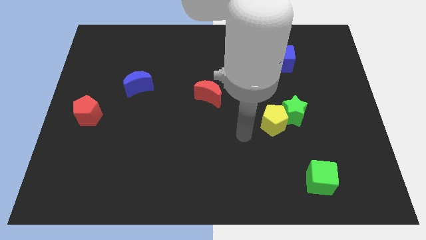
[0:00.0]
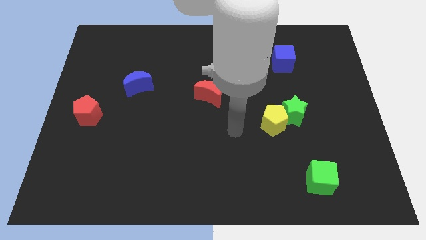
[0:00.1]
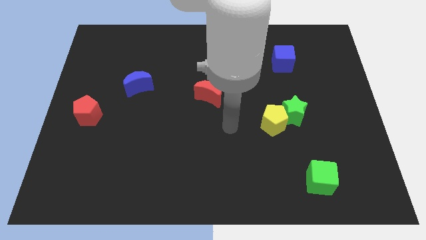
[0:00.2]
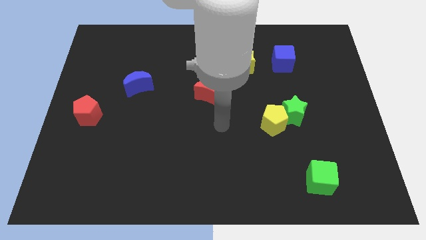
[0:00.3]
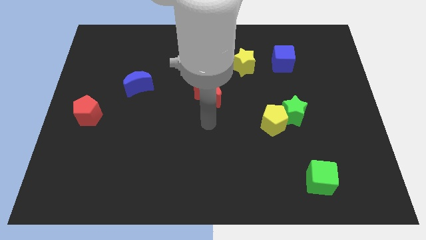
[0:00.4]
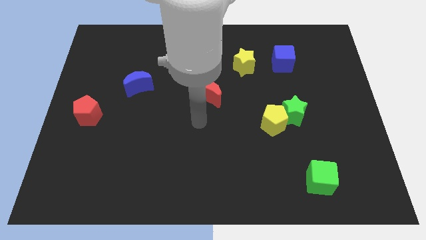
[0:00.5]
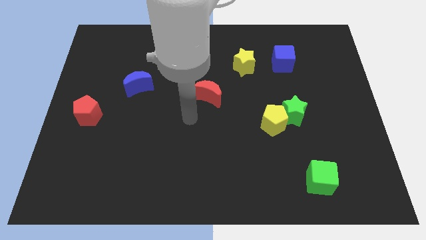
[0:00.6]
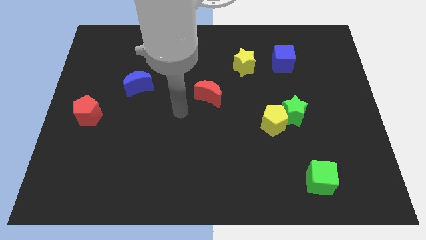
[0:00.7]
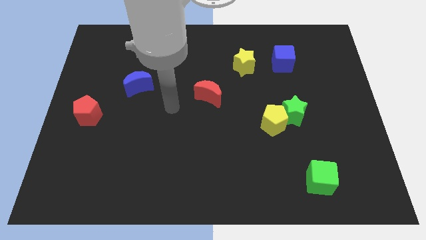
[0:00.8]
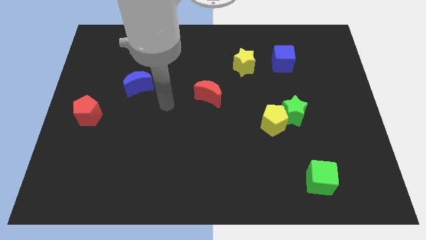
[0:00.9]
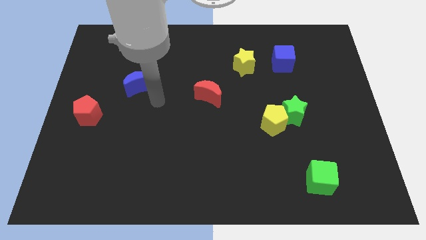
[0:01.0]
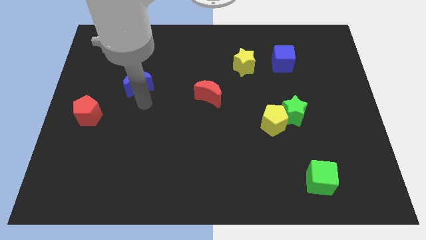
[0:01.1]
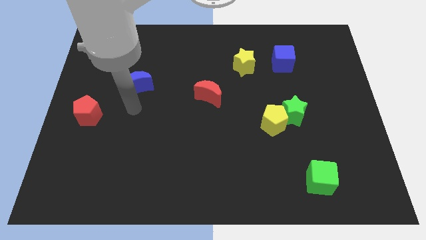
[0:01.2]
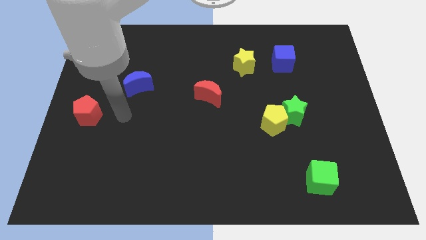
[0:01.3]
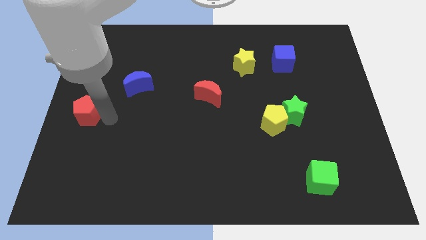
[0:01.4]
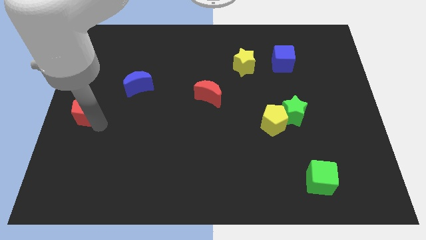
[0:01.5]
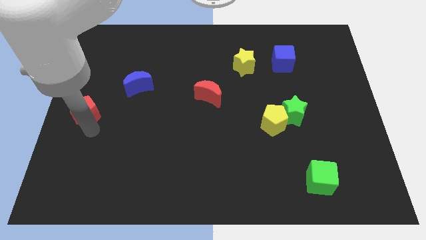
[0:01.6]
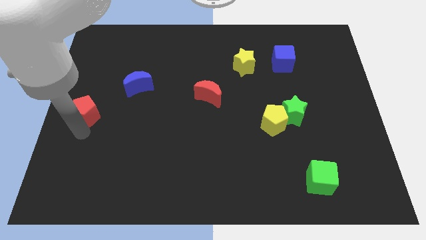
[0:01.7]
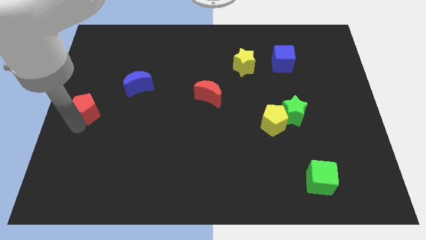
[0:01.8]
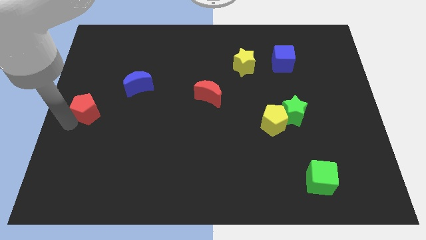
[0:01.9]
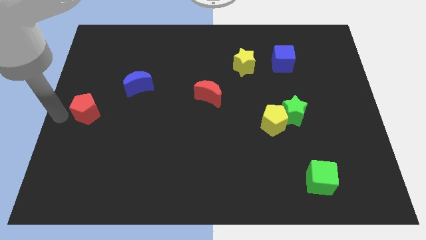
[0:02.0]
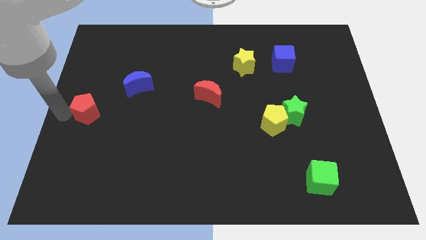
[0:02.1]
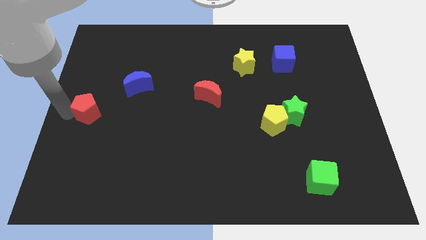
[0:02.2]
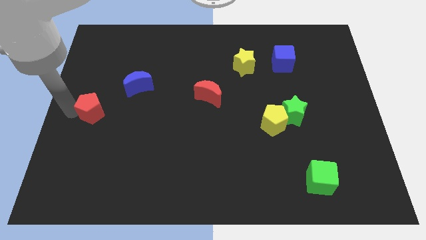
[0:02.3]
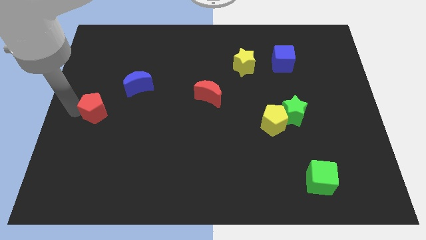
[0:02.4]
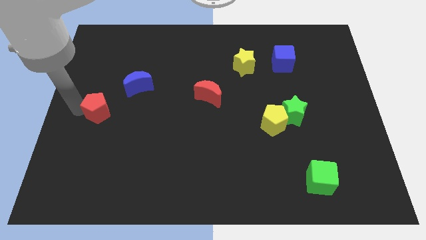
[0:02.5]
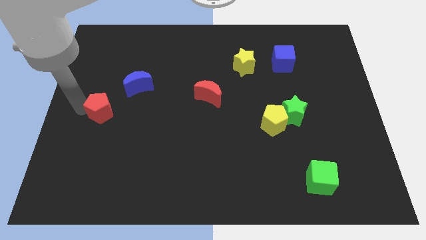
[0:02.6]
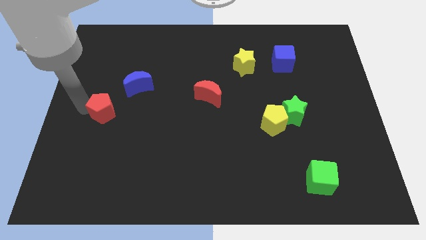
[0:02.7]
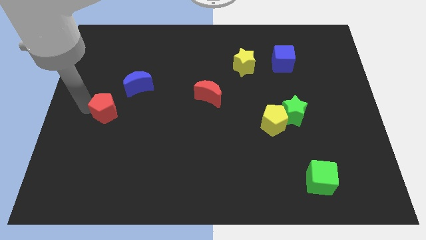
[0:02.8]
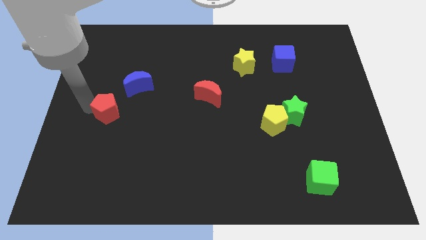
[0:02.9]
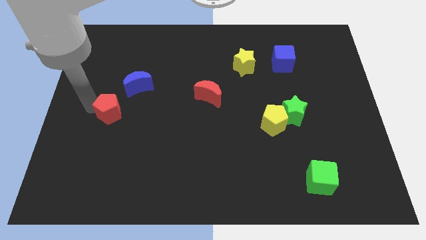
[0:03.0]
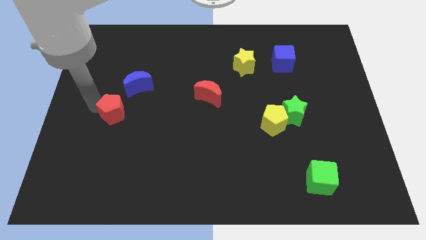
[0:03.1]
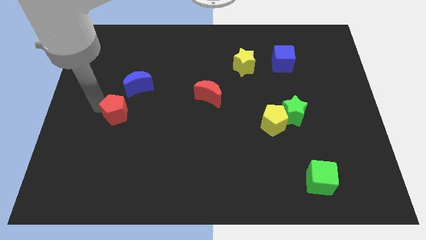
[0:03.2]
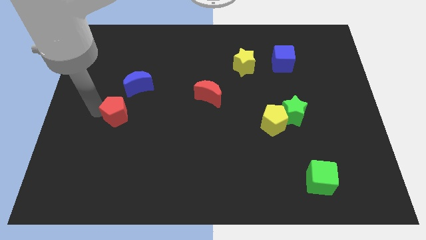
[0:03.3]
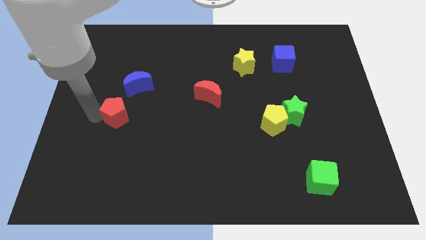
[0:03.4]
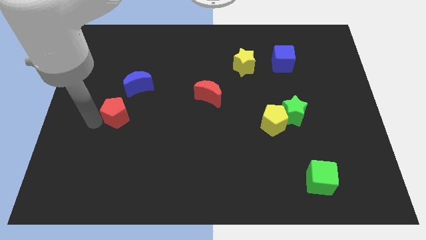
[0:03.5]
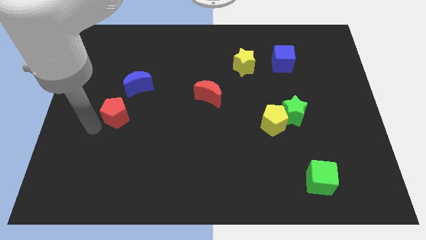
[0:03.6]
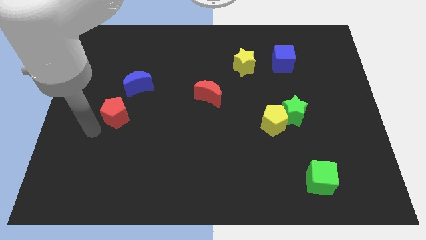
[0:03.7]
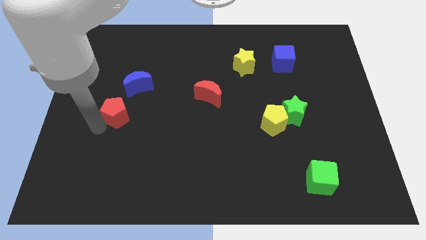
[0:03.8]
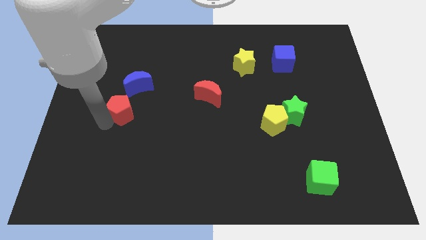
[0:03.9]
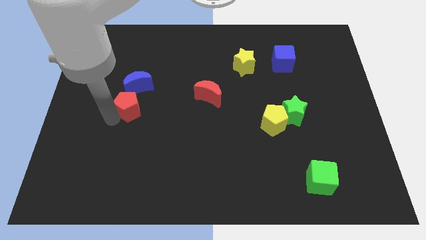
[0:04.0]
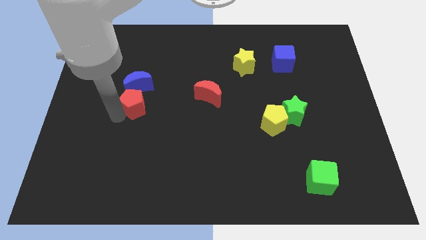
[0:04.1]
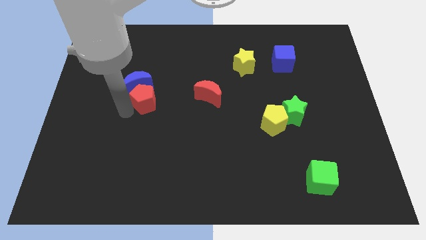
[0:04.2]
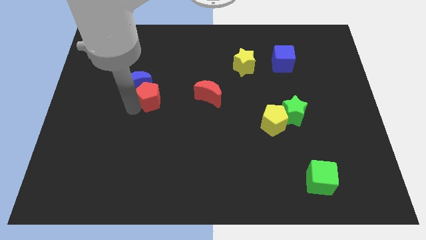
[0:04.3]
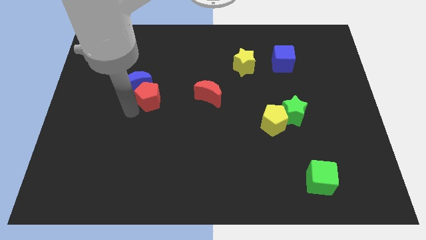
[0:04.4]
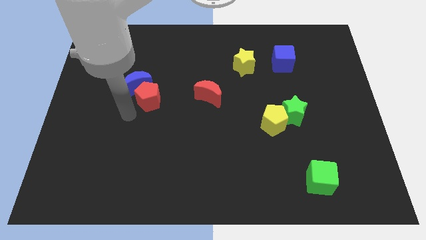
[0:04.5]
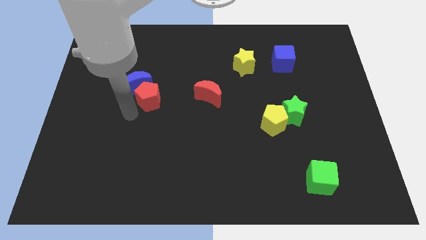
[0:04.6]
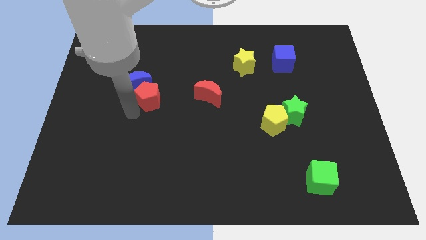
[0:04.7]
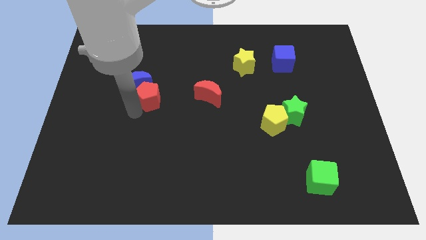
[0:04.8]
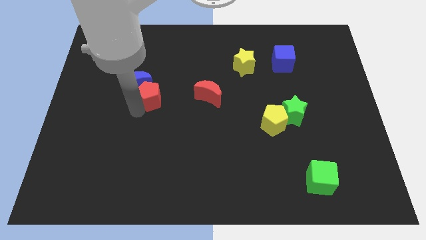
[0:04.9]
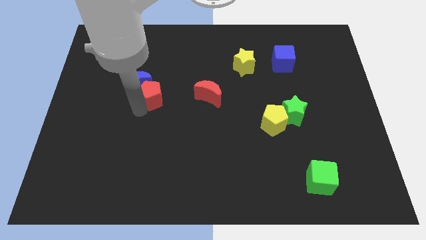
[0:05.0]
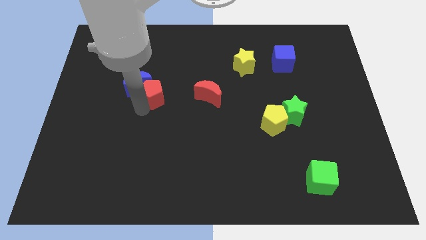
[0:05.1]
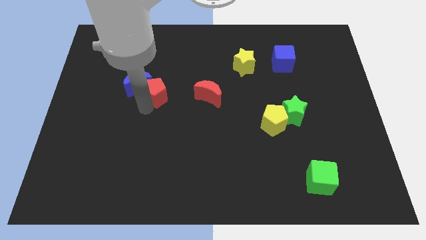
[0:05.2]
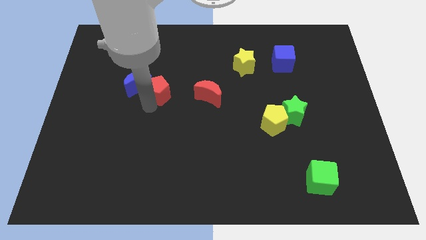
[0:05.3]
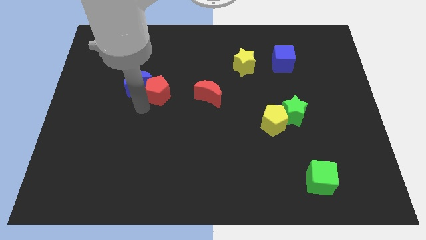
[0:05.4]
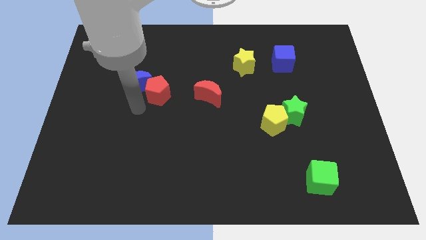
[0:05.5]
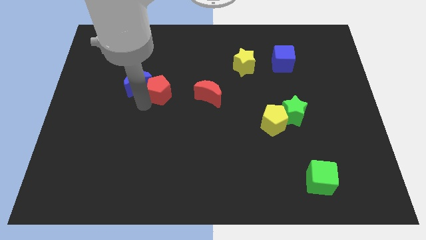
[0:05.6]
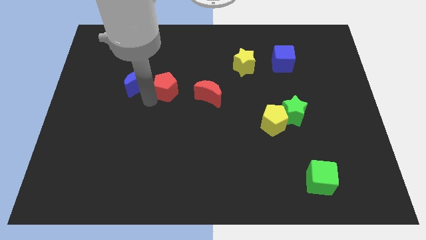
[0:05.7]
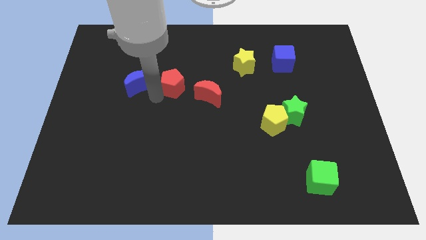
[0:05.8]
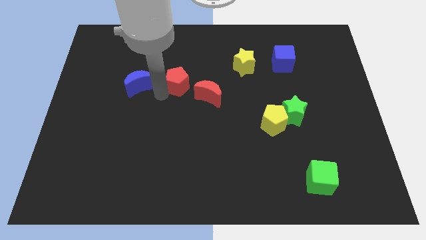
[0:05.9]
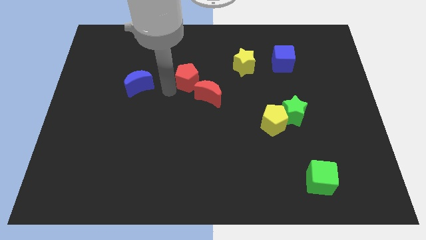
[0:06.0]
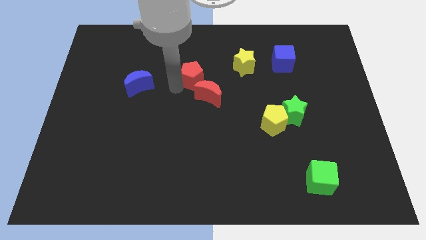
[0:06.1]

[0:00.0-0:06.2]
push the red pentagon left of the yellow star
